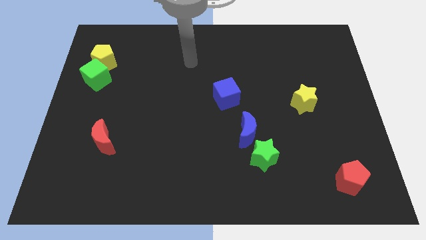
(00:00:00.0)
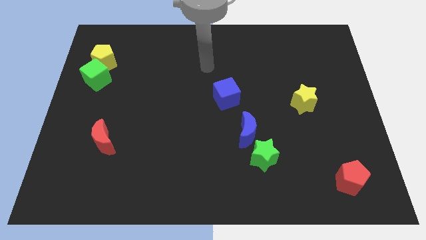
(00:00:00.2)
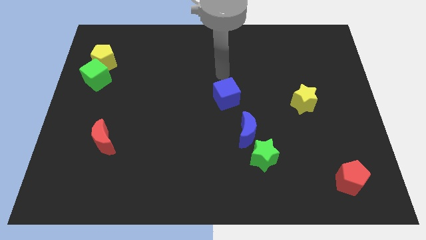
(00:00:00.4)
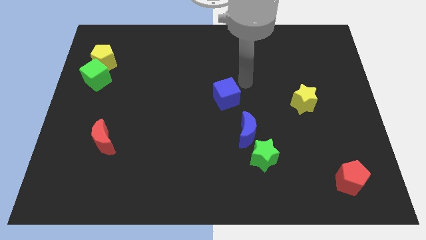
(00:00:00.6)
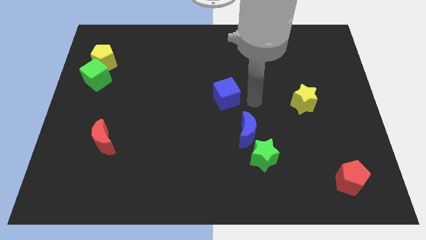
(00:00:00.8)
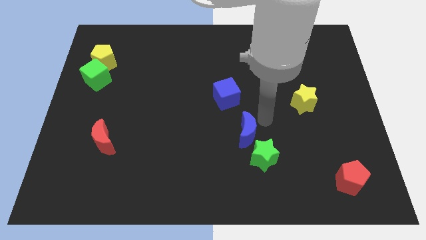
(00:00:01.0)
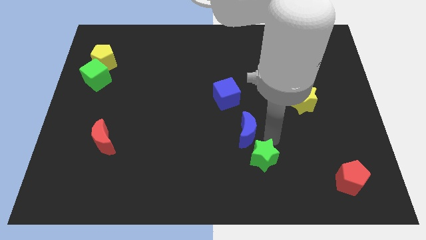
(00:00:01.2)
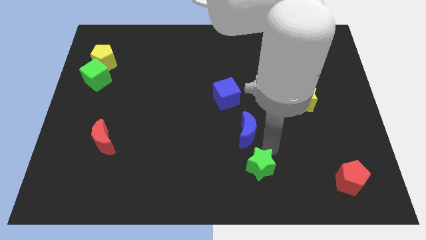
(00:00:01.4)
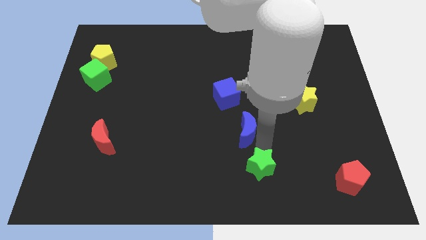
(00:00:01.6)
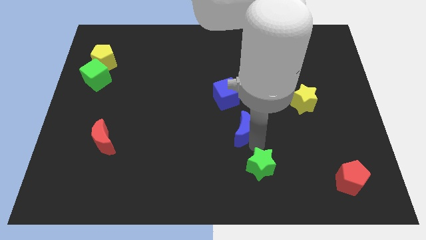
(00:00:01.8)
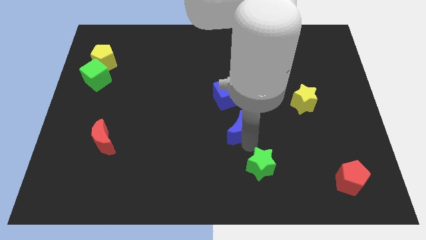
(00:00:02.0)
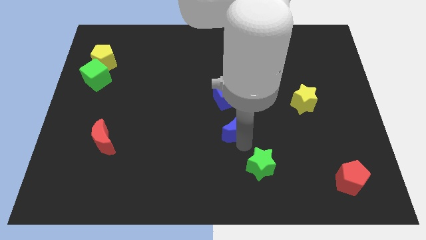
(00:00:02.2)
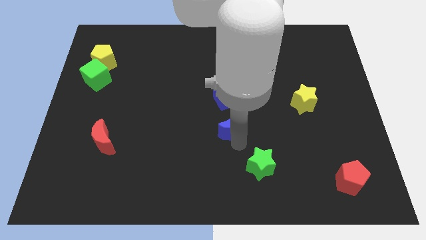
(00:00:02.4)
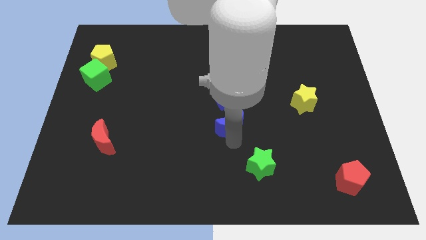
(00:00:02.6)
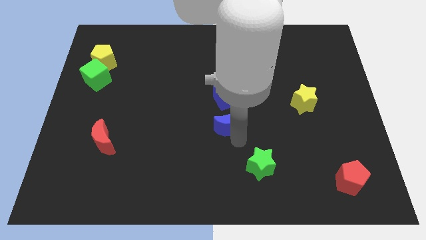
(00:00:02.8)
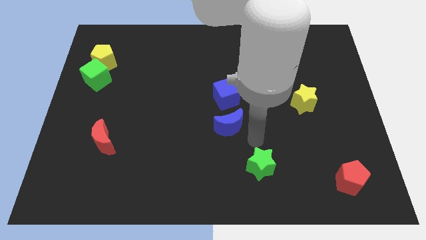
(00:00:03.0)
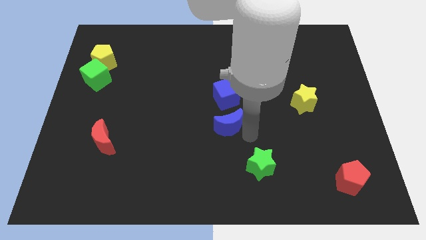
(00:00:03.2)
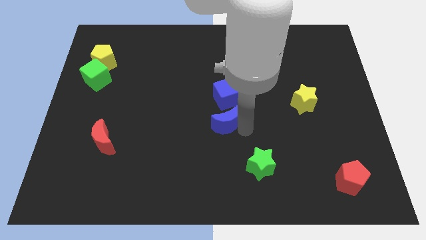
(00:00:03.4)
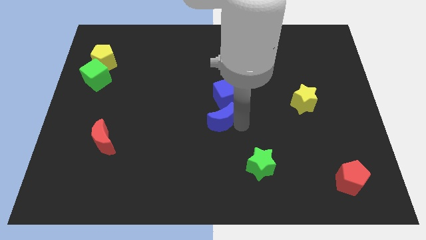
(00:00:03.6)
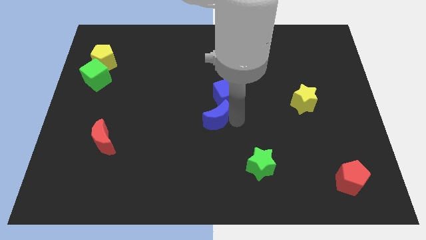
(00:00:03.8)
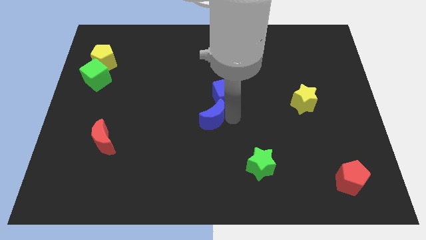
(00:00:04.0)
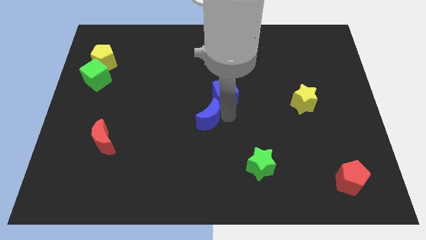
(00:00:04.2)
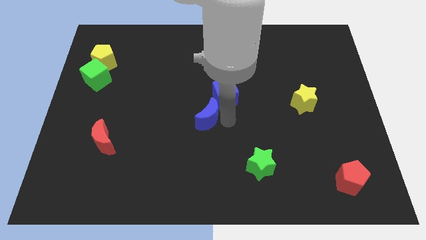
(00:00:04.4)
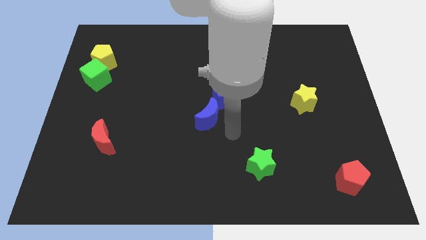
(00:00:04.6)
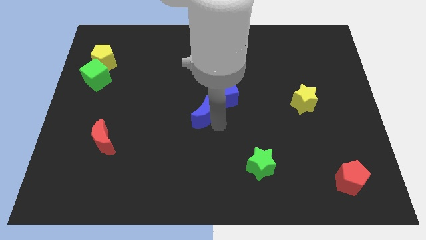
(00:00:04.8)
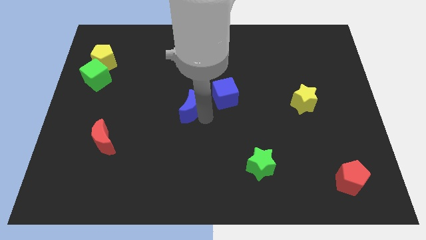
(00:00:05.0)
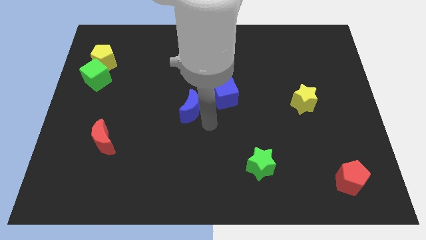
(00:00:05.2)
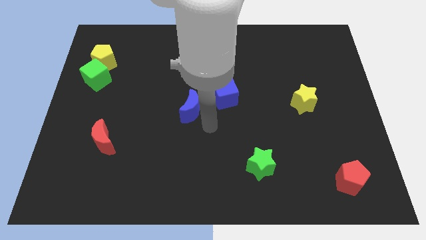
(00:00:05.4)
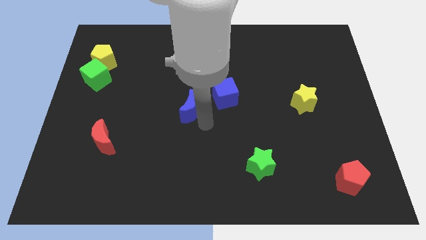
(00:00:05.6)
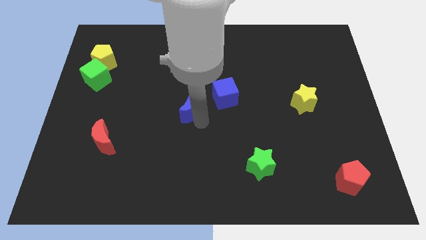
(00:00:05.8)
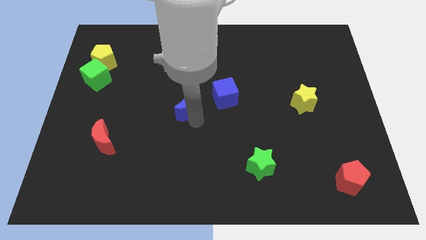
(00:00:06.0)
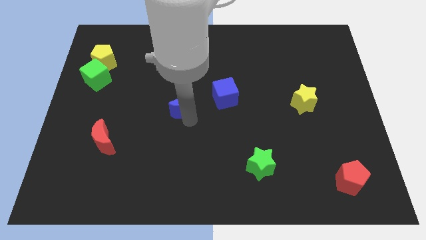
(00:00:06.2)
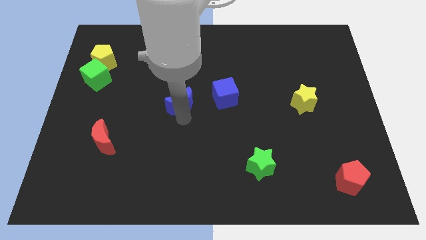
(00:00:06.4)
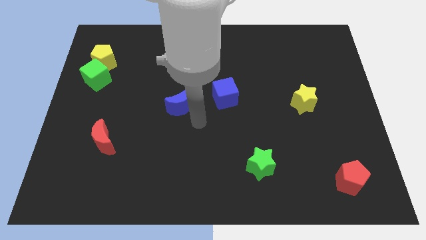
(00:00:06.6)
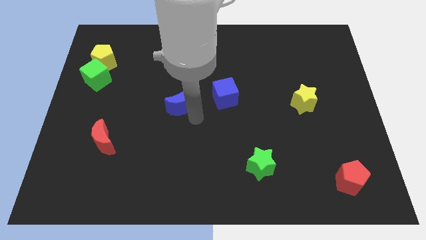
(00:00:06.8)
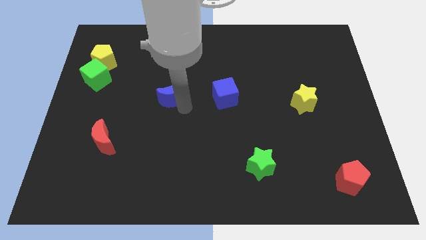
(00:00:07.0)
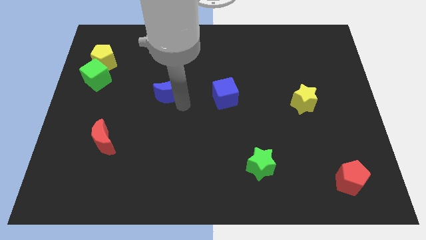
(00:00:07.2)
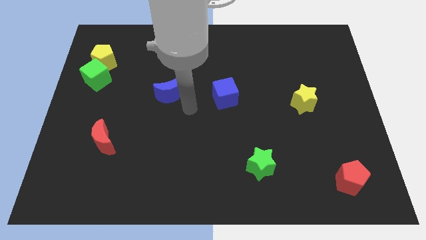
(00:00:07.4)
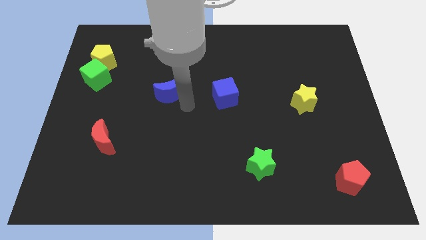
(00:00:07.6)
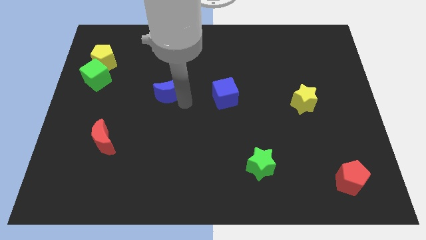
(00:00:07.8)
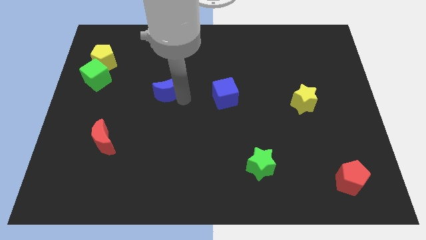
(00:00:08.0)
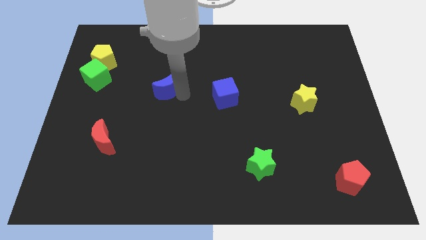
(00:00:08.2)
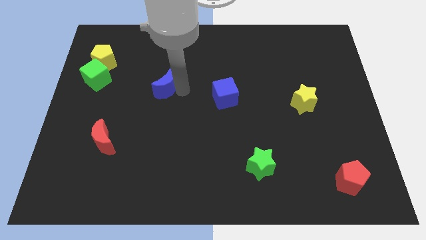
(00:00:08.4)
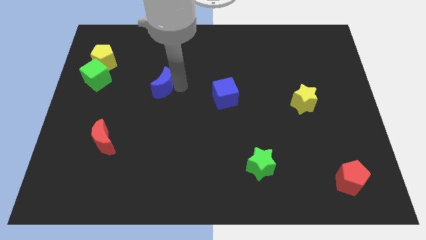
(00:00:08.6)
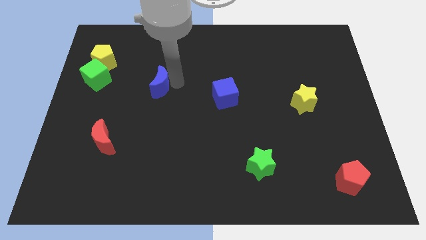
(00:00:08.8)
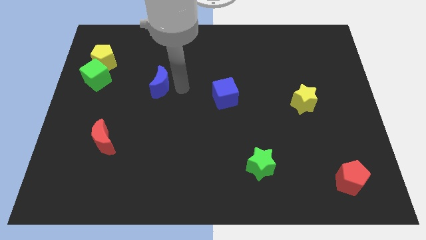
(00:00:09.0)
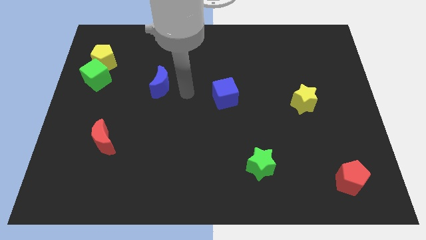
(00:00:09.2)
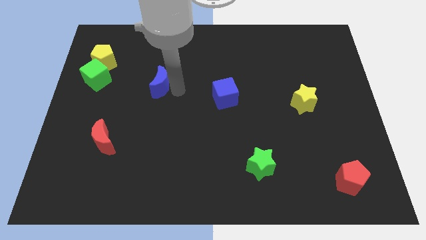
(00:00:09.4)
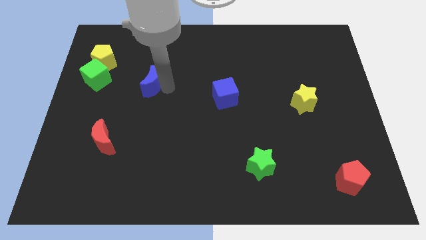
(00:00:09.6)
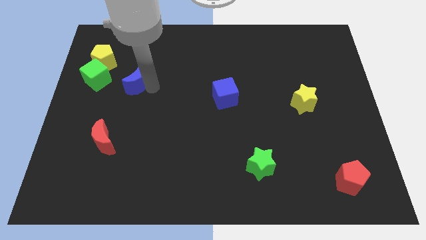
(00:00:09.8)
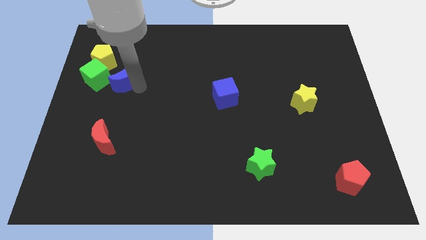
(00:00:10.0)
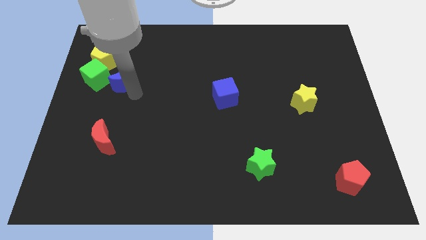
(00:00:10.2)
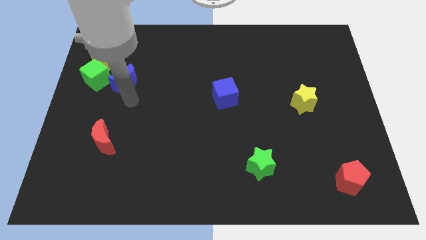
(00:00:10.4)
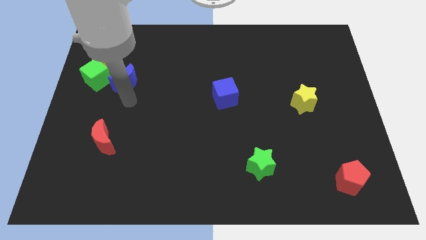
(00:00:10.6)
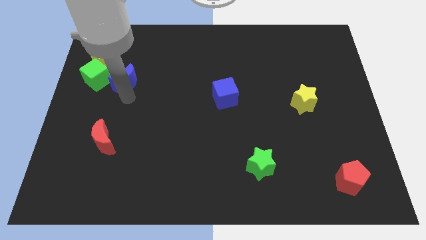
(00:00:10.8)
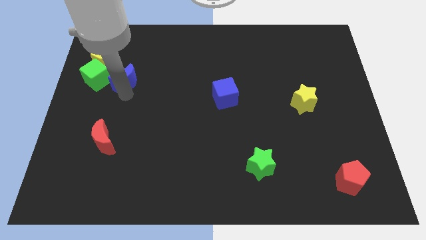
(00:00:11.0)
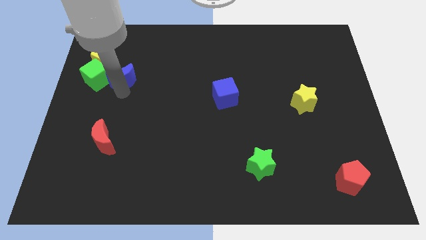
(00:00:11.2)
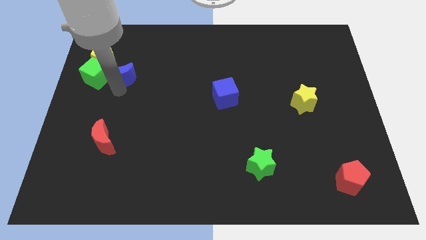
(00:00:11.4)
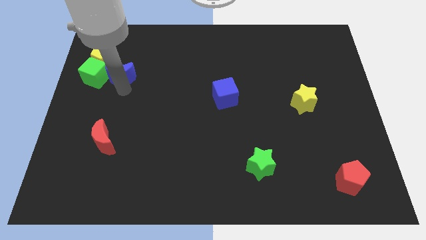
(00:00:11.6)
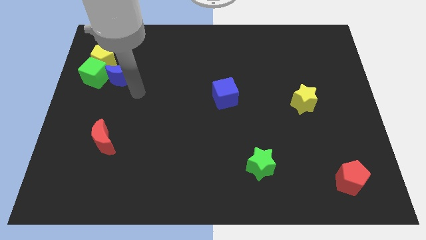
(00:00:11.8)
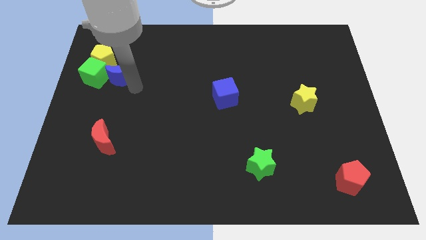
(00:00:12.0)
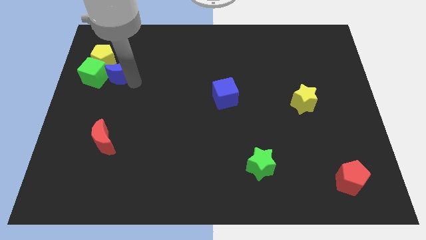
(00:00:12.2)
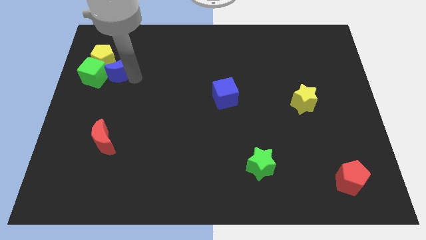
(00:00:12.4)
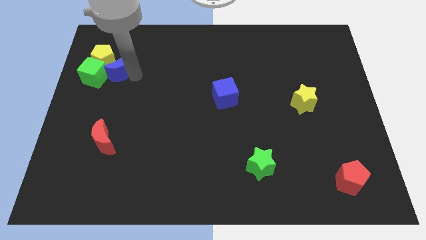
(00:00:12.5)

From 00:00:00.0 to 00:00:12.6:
slide the blue moon close to the yellow pentagon
